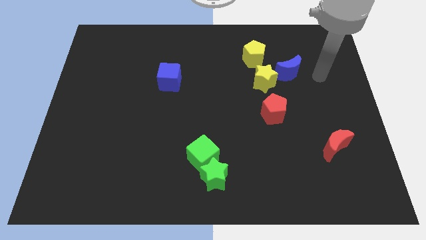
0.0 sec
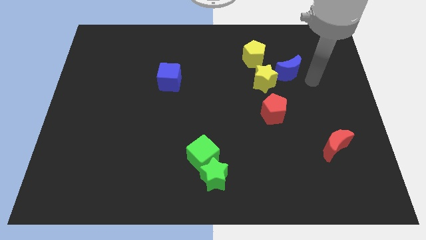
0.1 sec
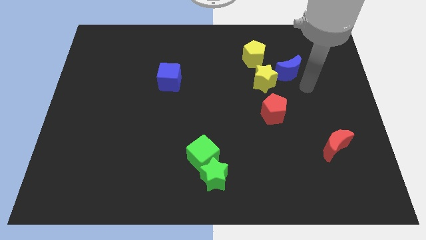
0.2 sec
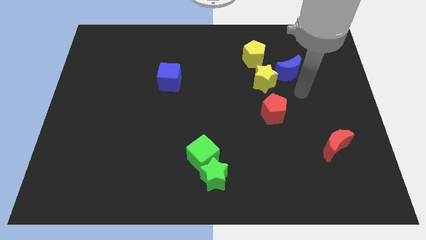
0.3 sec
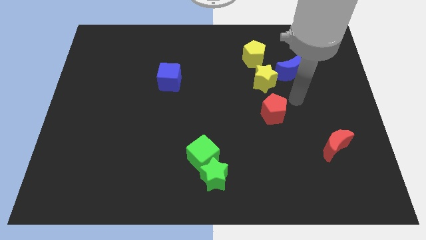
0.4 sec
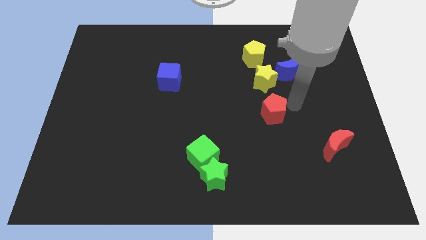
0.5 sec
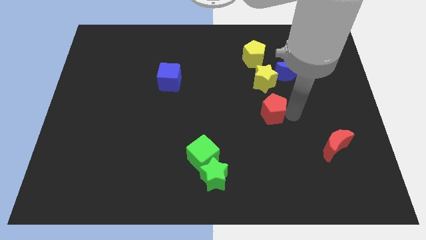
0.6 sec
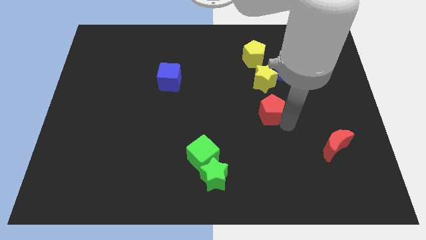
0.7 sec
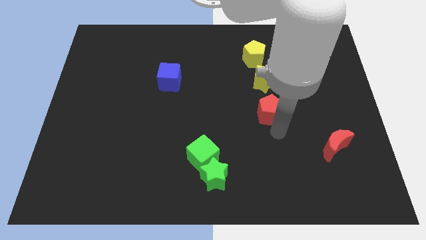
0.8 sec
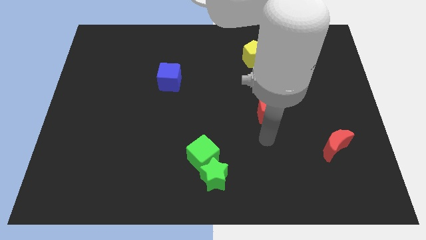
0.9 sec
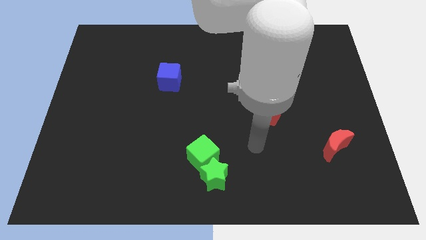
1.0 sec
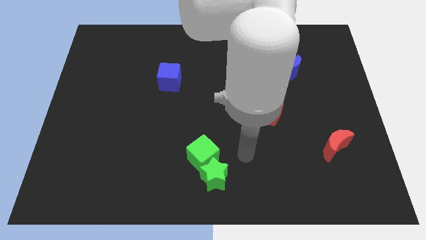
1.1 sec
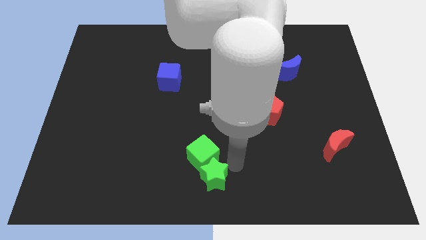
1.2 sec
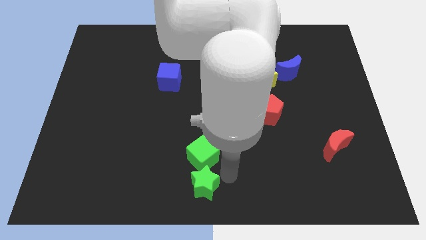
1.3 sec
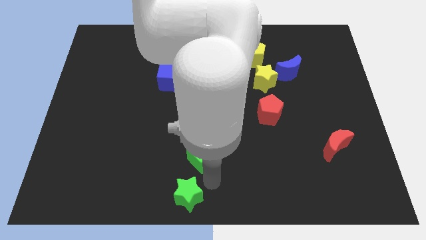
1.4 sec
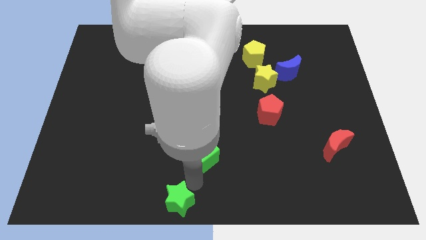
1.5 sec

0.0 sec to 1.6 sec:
move the green cube away from the green star

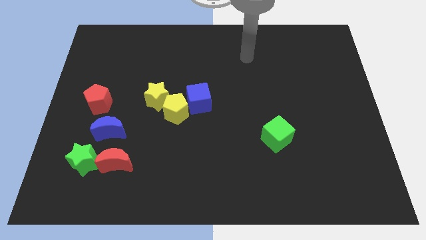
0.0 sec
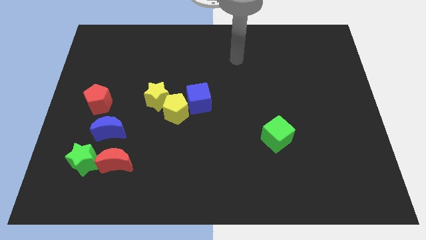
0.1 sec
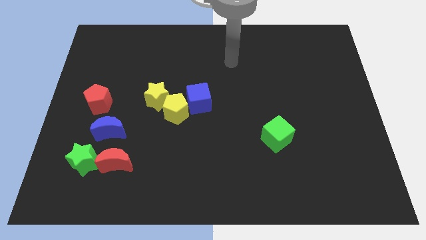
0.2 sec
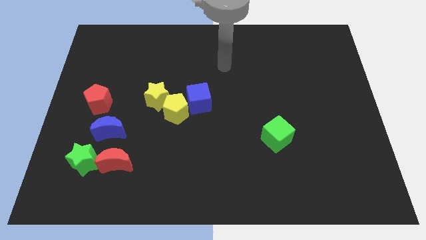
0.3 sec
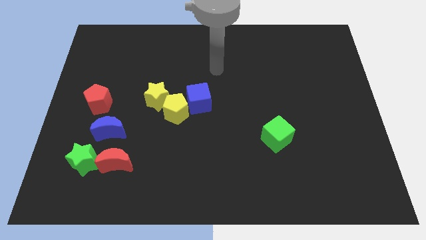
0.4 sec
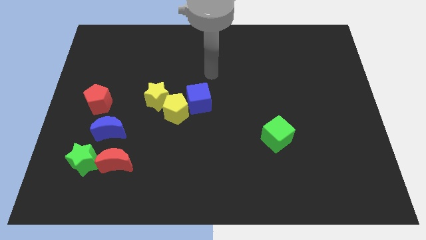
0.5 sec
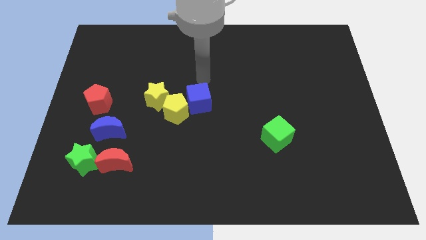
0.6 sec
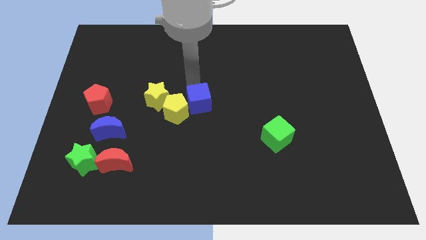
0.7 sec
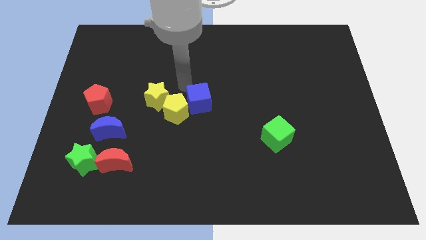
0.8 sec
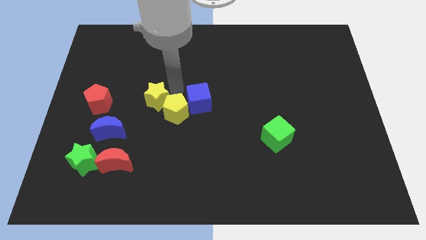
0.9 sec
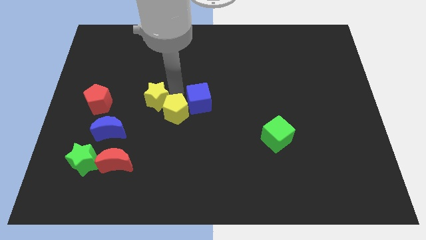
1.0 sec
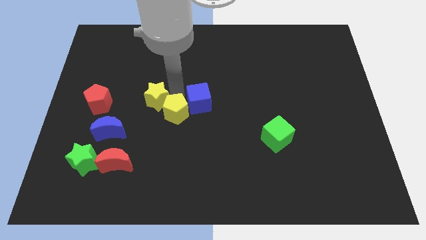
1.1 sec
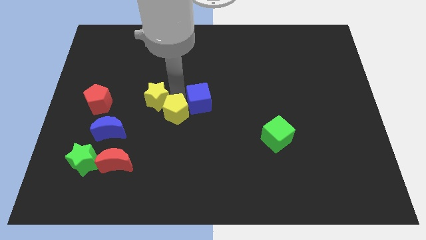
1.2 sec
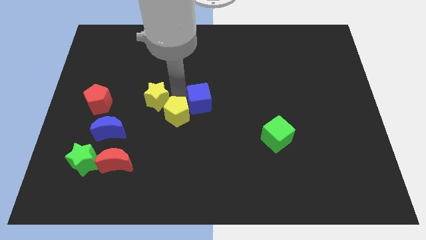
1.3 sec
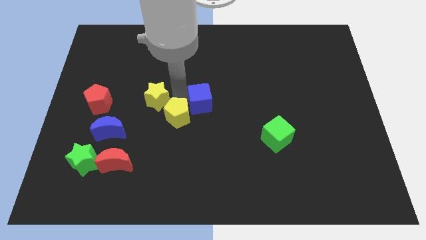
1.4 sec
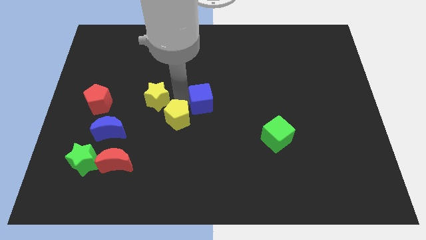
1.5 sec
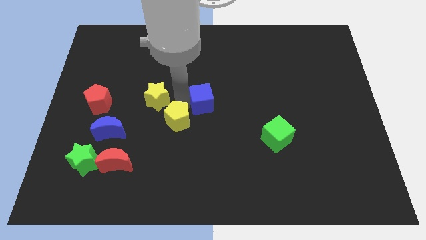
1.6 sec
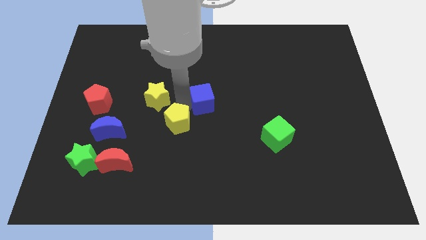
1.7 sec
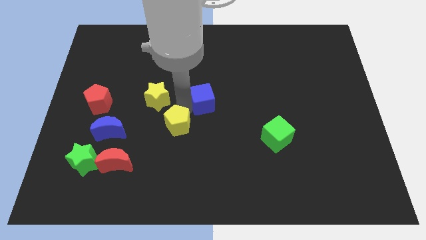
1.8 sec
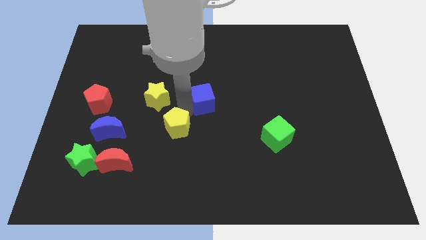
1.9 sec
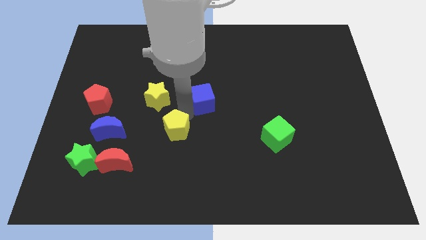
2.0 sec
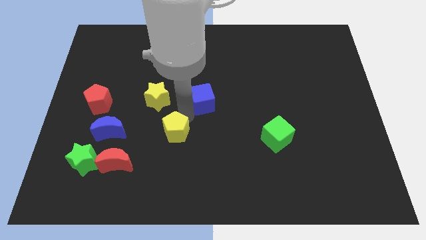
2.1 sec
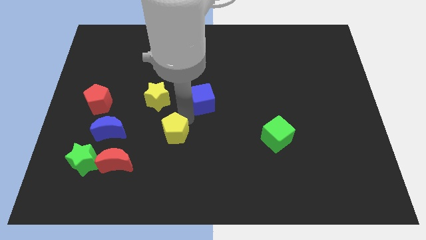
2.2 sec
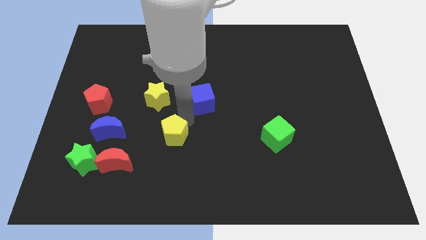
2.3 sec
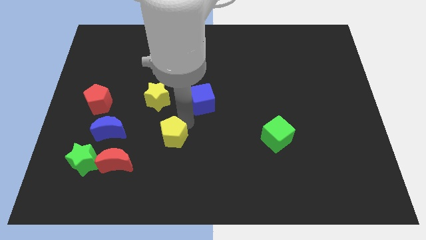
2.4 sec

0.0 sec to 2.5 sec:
separate the yellow pentagon from the blue cube and yellow star

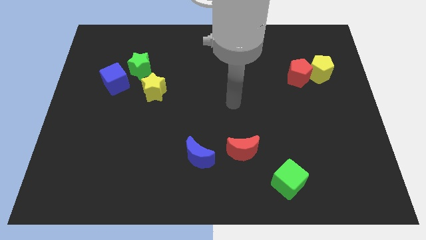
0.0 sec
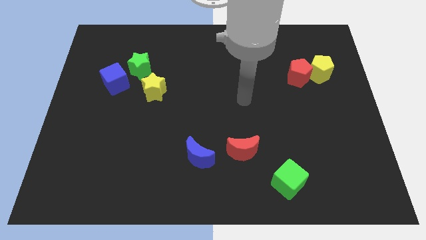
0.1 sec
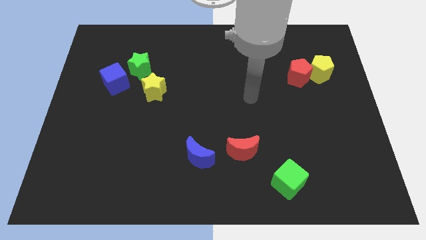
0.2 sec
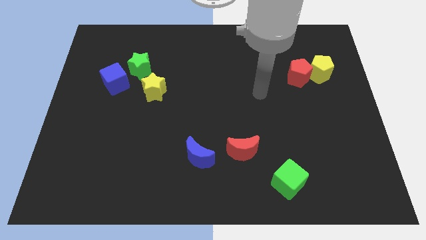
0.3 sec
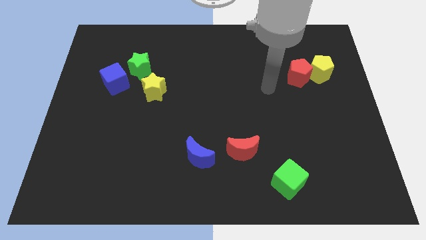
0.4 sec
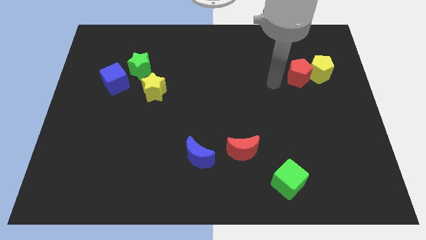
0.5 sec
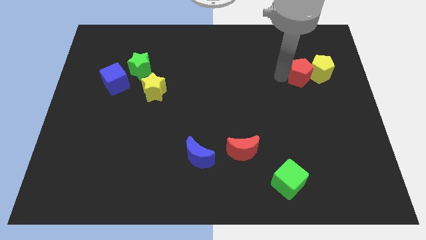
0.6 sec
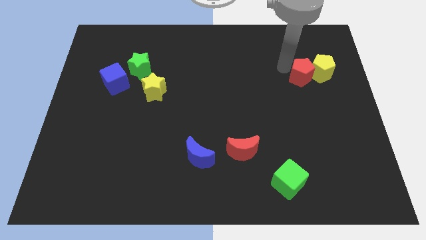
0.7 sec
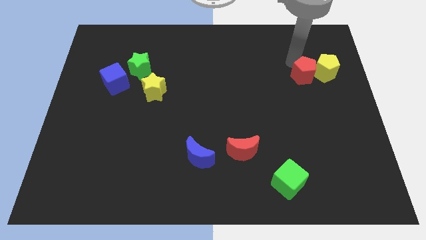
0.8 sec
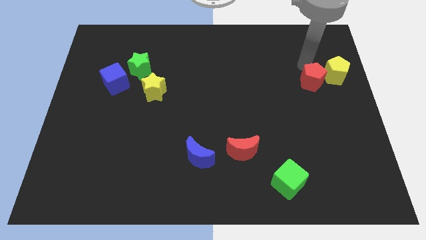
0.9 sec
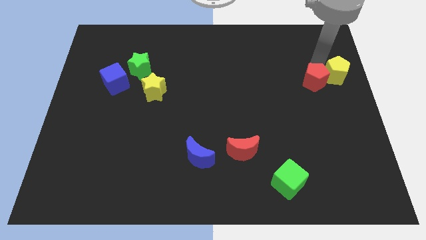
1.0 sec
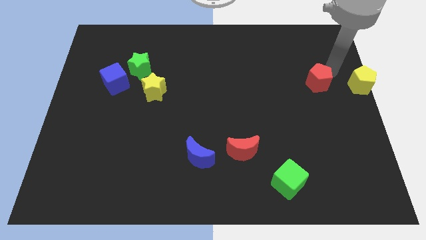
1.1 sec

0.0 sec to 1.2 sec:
move the red pentagon away from the yellow pentagon

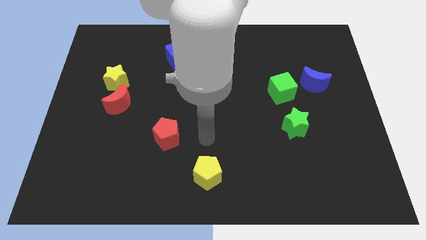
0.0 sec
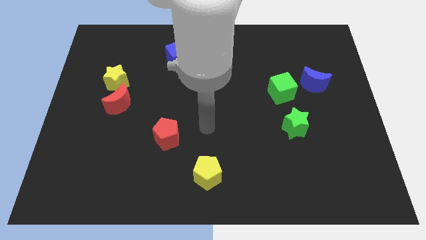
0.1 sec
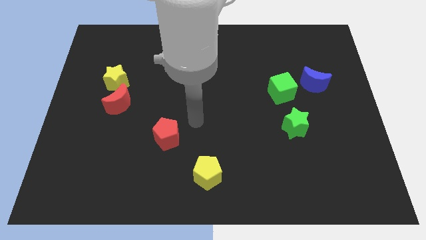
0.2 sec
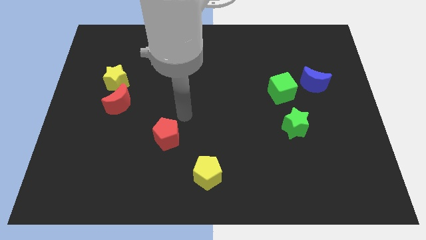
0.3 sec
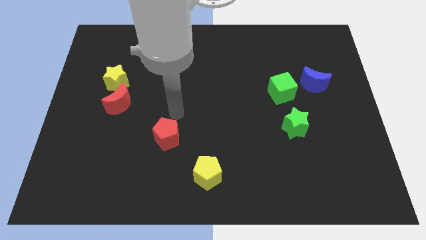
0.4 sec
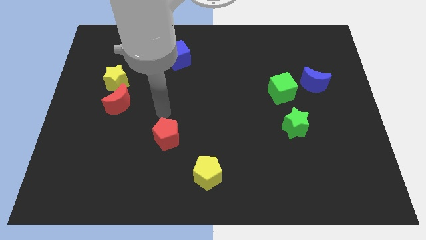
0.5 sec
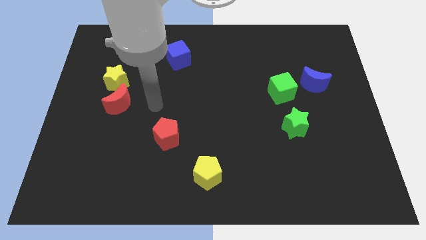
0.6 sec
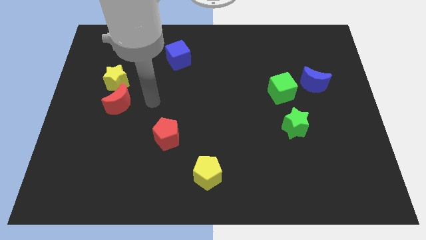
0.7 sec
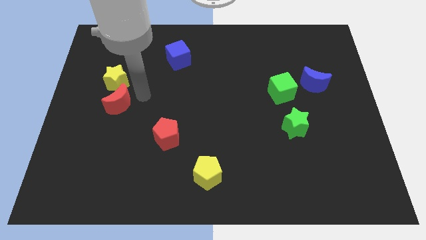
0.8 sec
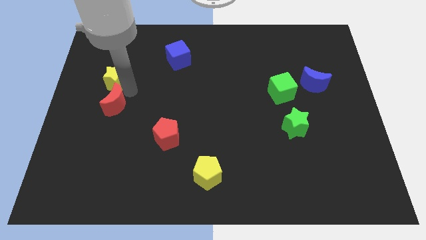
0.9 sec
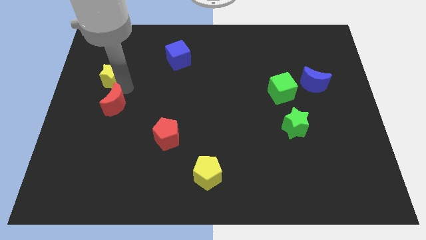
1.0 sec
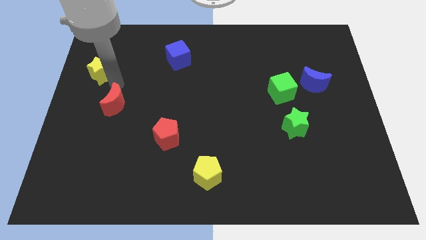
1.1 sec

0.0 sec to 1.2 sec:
move the red moon away from the yellow star

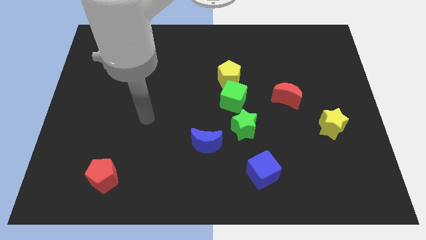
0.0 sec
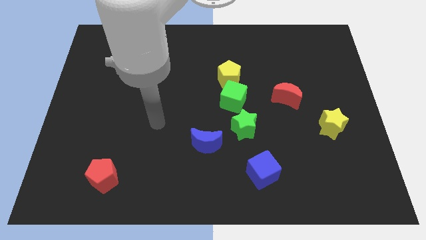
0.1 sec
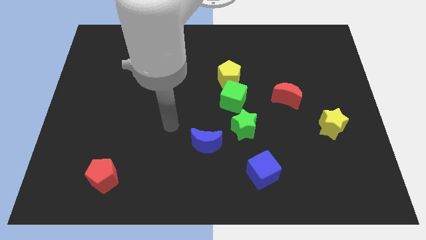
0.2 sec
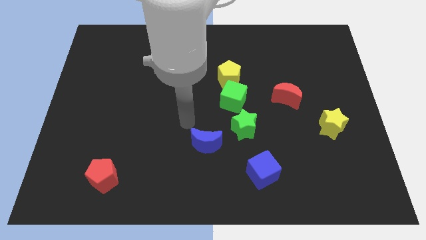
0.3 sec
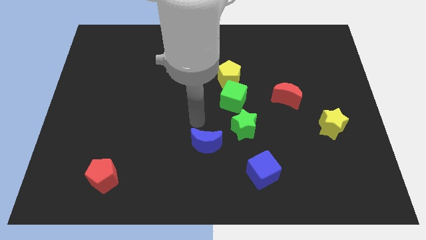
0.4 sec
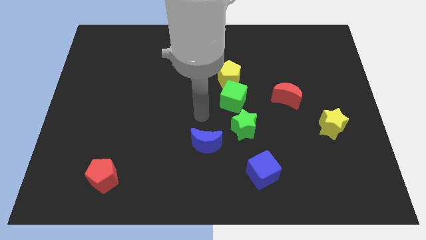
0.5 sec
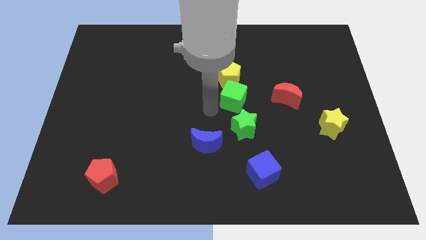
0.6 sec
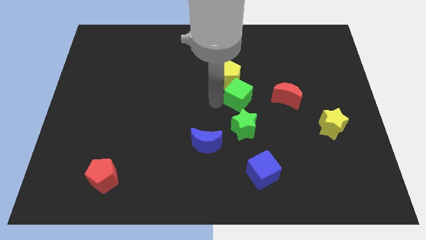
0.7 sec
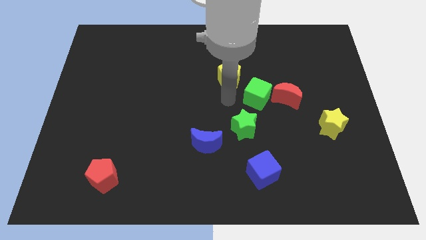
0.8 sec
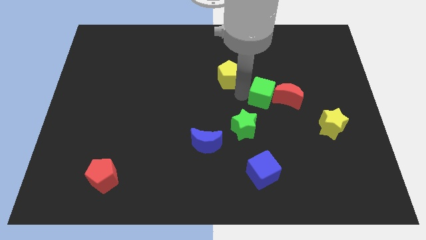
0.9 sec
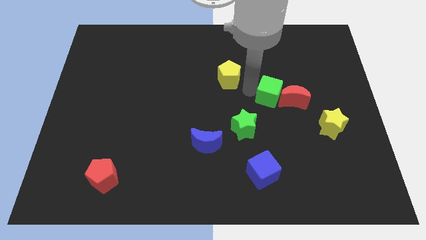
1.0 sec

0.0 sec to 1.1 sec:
pull the yellow pentagon apart from the green cube

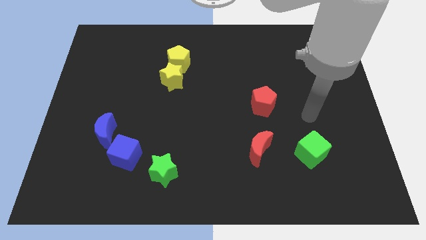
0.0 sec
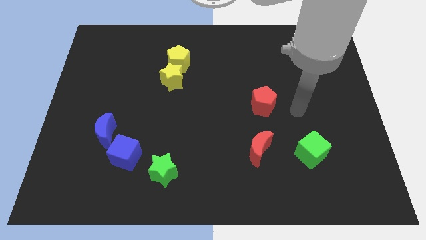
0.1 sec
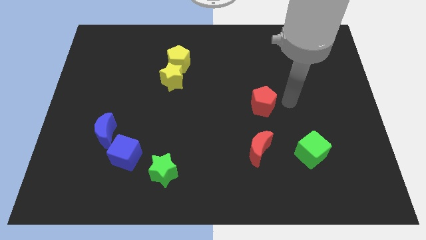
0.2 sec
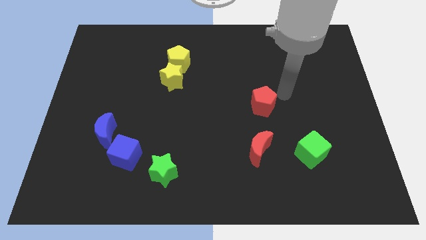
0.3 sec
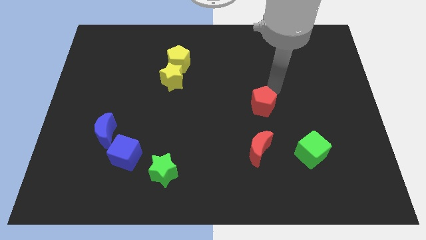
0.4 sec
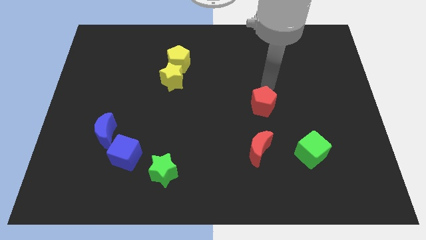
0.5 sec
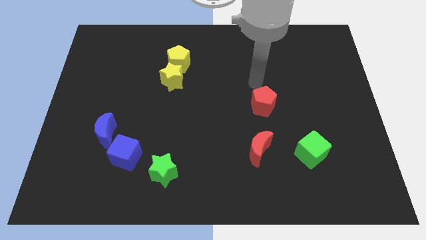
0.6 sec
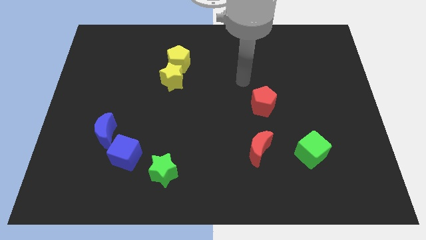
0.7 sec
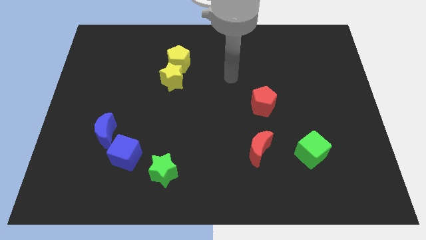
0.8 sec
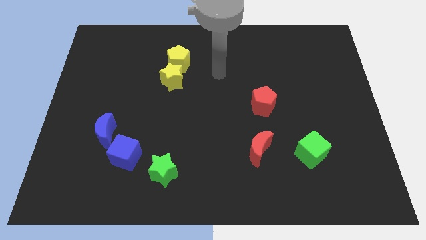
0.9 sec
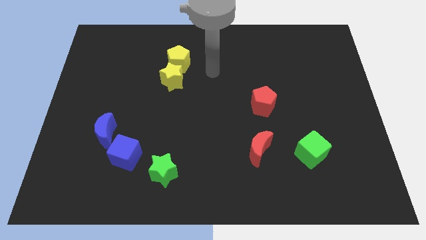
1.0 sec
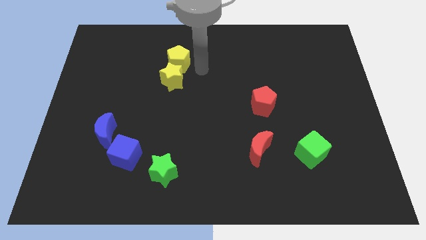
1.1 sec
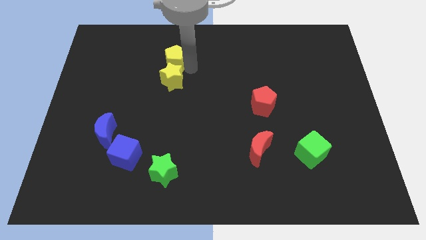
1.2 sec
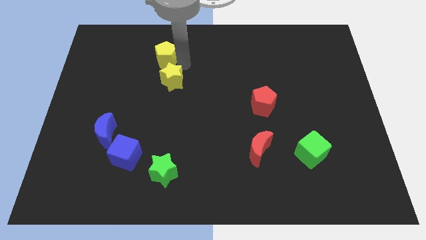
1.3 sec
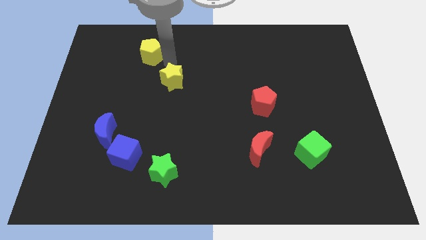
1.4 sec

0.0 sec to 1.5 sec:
pull the yellow star apart from the yellow pentagon

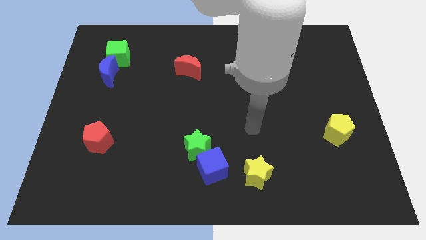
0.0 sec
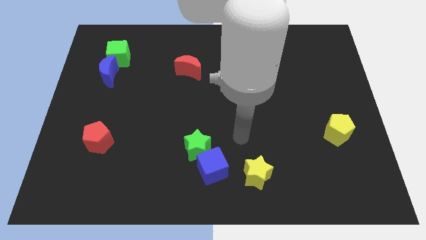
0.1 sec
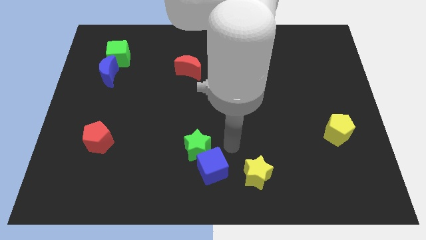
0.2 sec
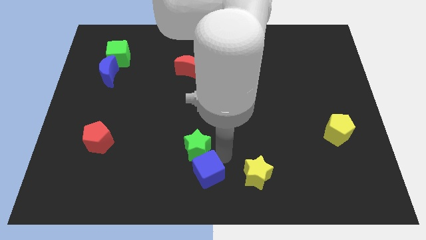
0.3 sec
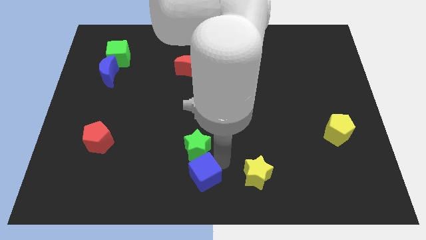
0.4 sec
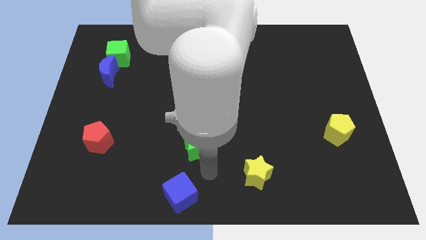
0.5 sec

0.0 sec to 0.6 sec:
pull the green star apart from the blue cube
